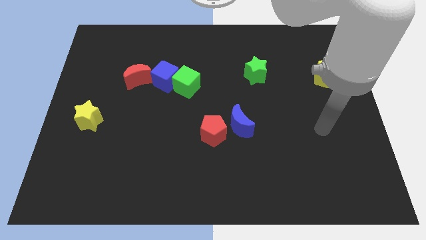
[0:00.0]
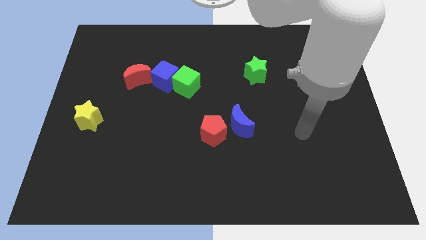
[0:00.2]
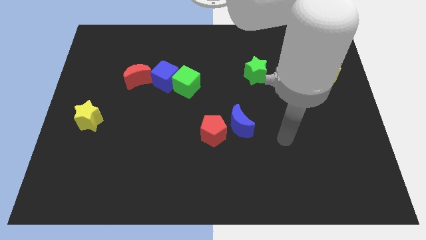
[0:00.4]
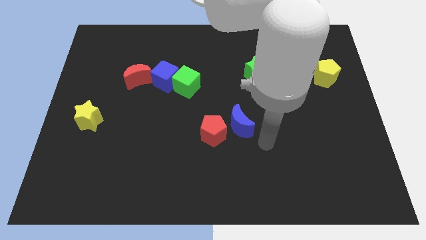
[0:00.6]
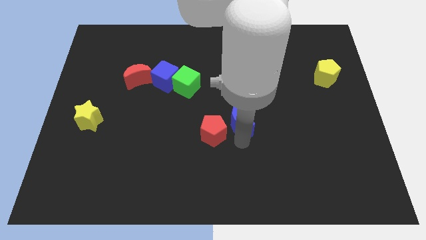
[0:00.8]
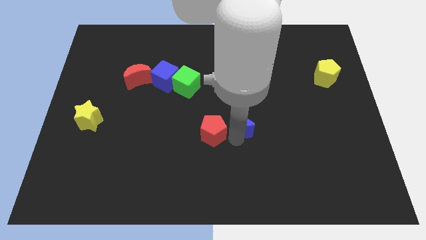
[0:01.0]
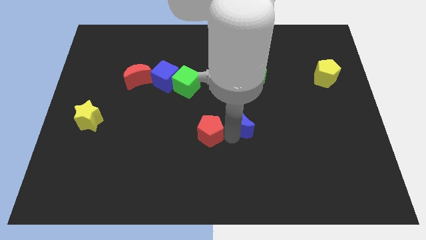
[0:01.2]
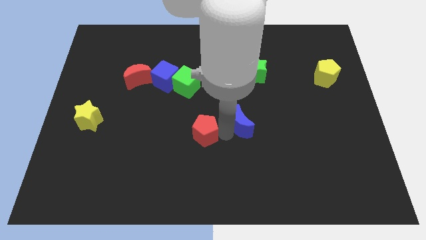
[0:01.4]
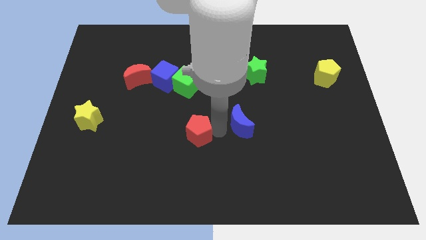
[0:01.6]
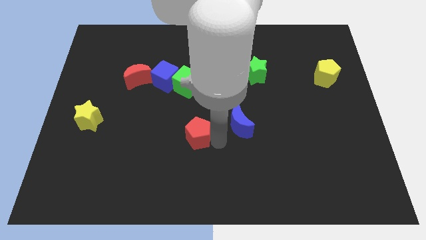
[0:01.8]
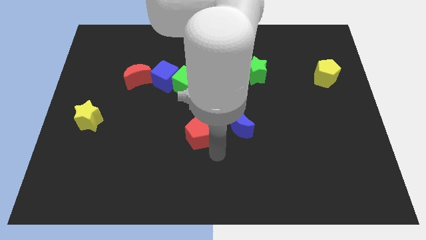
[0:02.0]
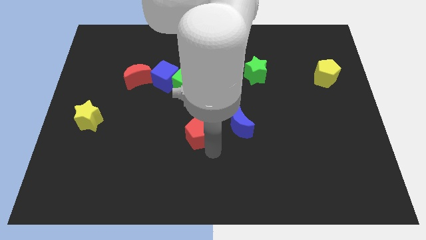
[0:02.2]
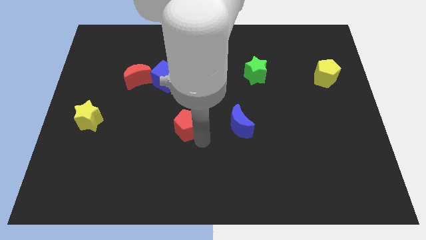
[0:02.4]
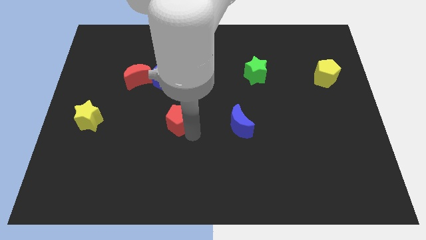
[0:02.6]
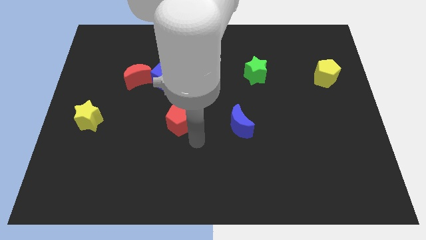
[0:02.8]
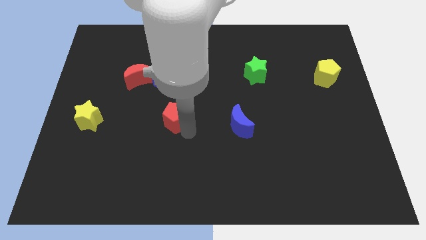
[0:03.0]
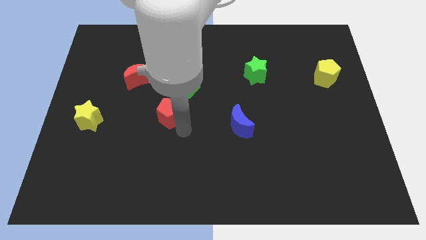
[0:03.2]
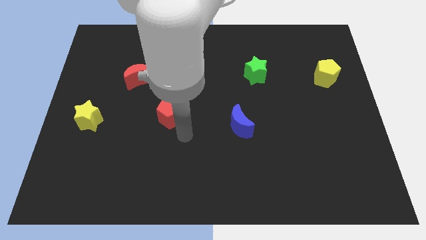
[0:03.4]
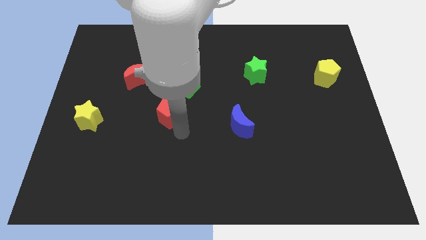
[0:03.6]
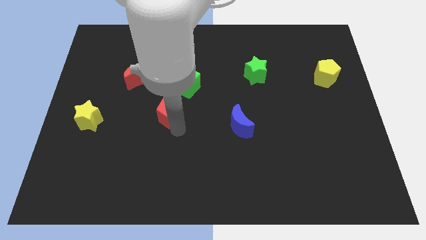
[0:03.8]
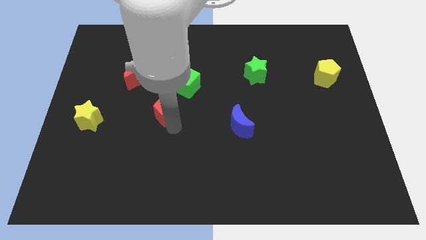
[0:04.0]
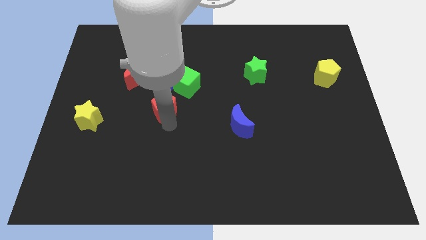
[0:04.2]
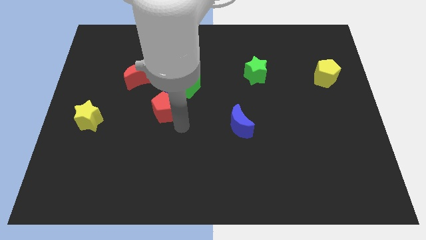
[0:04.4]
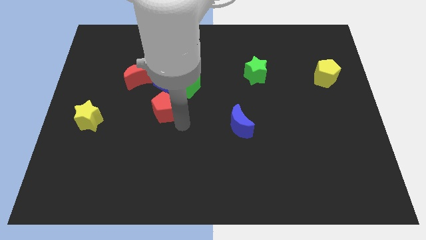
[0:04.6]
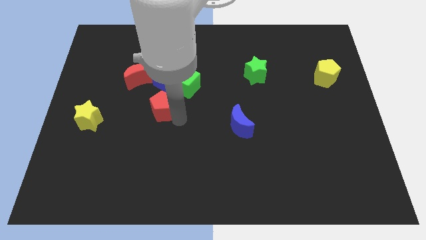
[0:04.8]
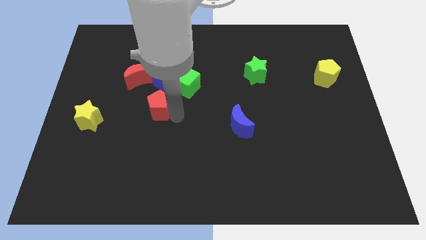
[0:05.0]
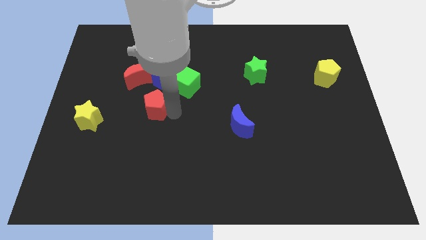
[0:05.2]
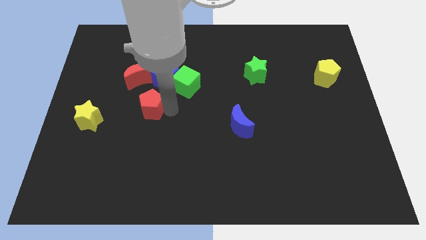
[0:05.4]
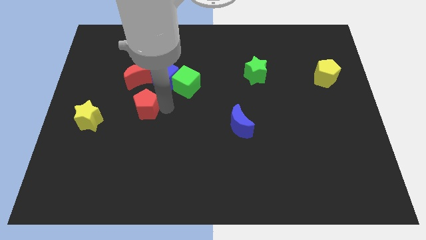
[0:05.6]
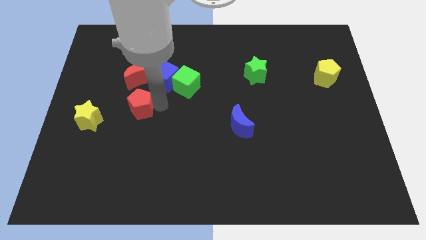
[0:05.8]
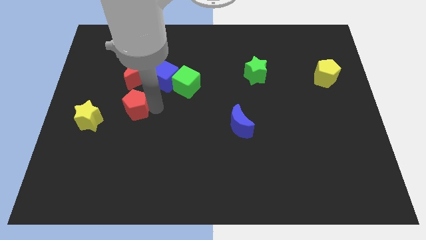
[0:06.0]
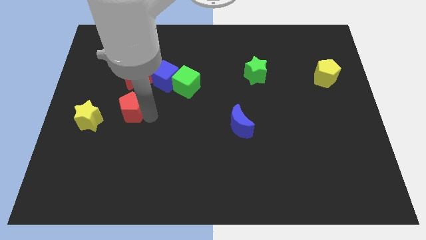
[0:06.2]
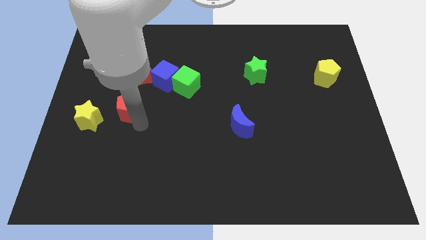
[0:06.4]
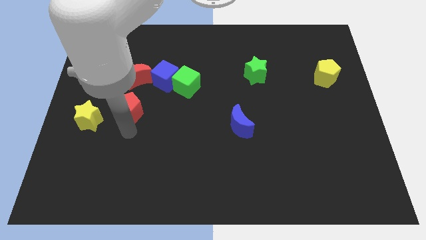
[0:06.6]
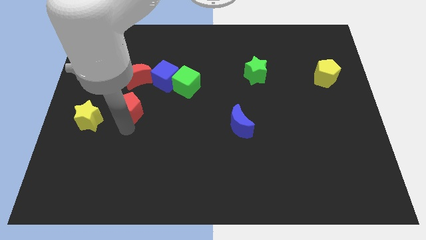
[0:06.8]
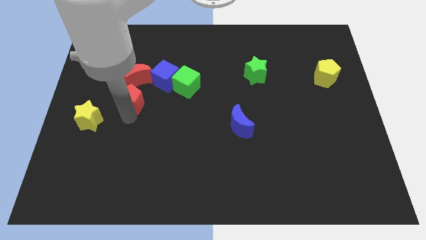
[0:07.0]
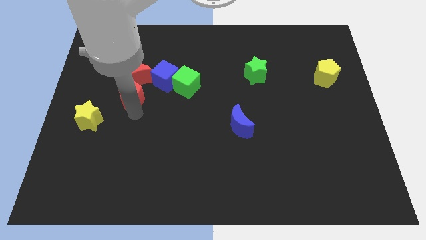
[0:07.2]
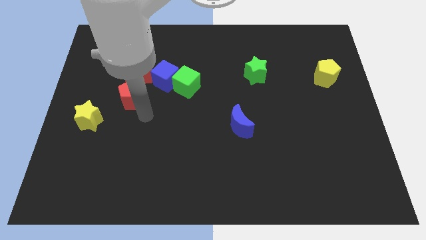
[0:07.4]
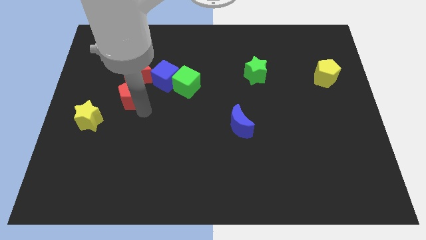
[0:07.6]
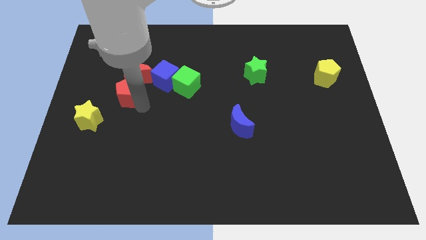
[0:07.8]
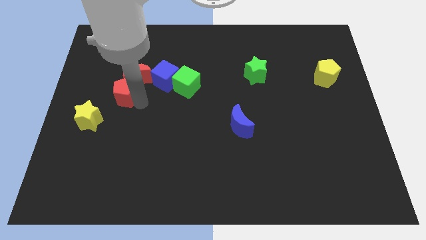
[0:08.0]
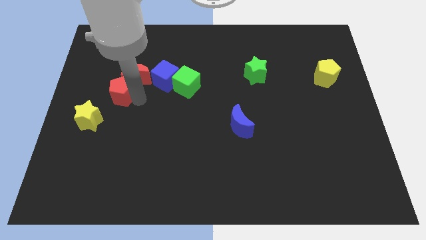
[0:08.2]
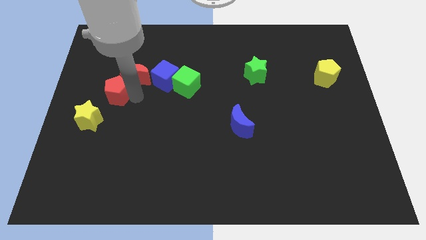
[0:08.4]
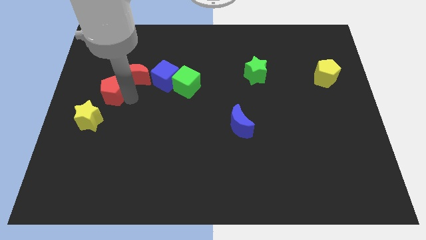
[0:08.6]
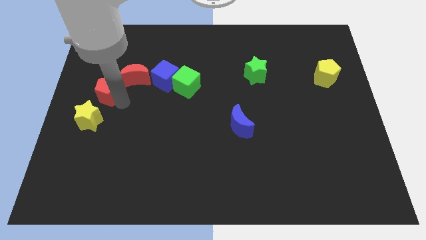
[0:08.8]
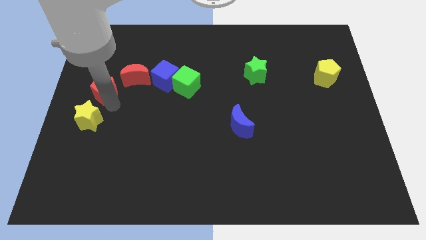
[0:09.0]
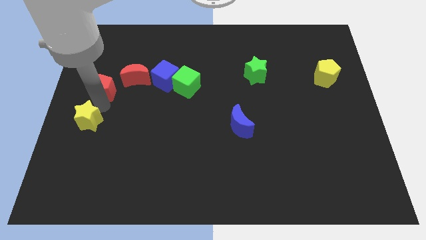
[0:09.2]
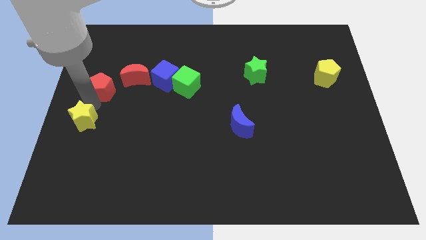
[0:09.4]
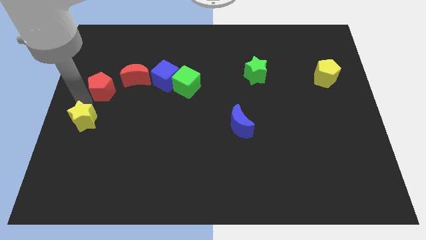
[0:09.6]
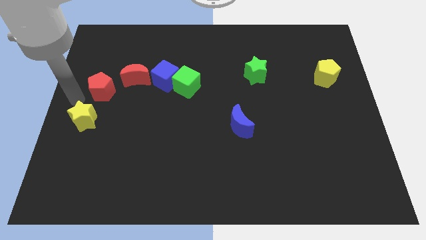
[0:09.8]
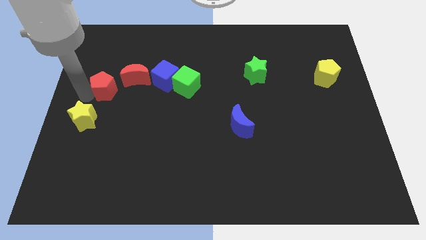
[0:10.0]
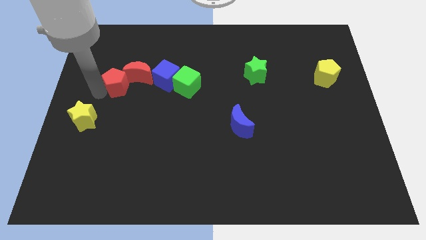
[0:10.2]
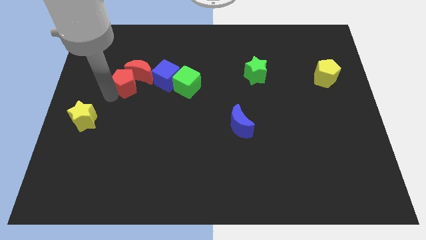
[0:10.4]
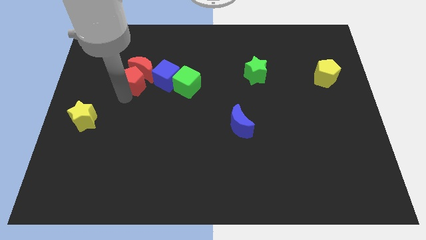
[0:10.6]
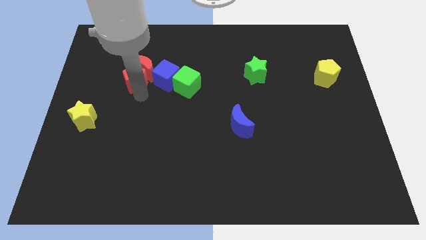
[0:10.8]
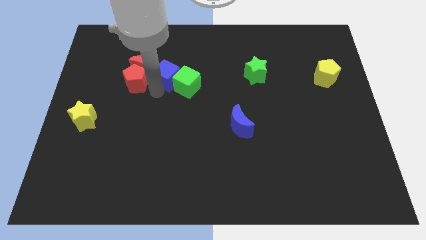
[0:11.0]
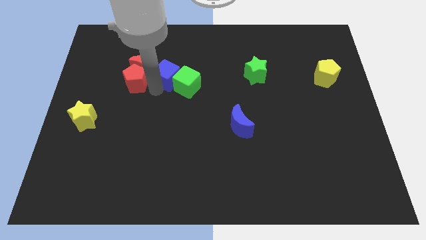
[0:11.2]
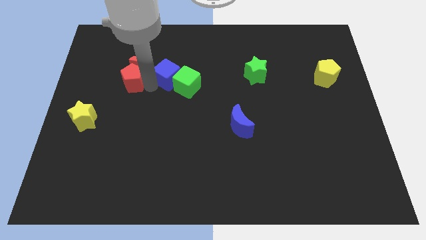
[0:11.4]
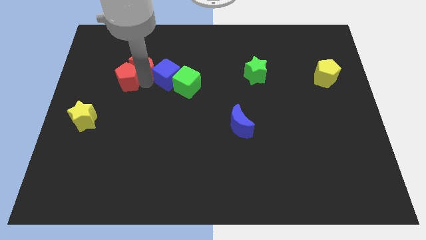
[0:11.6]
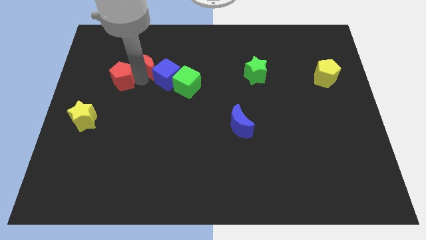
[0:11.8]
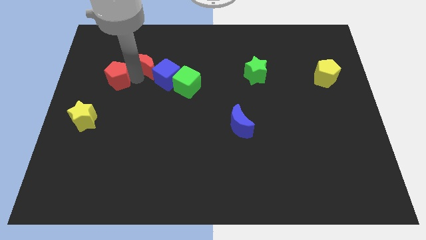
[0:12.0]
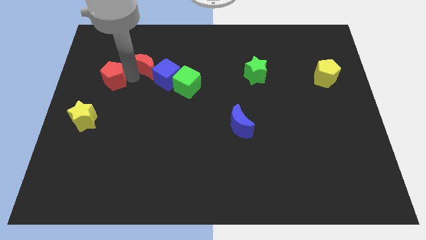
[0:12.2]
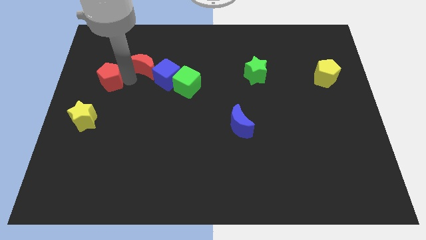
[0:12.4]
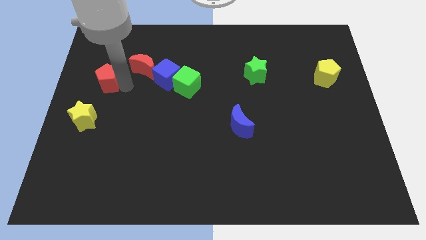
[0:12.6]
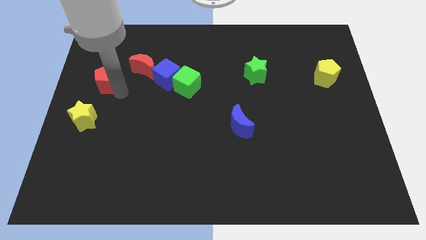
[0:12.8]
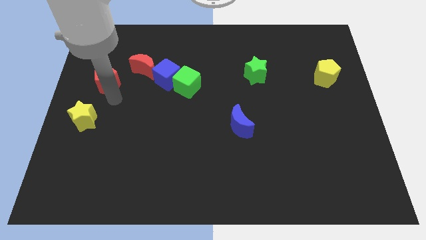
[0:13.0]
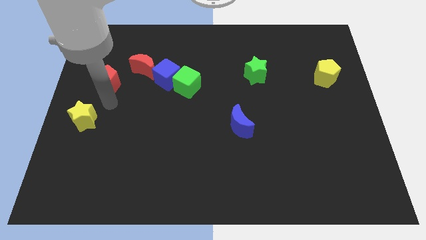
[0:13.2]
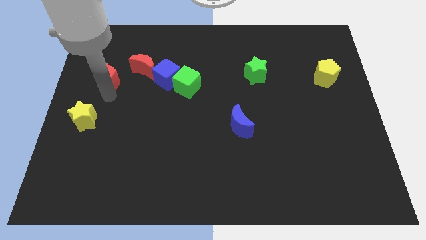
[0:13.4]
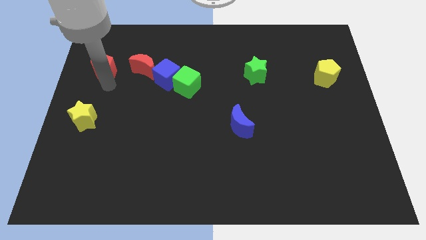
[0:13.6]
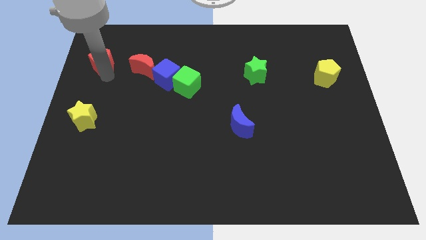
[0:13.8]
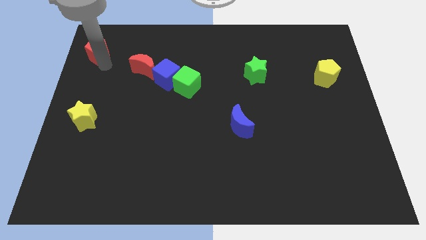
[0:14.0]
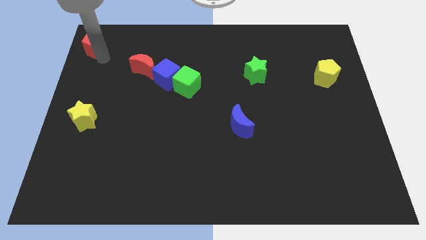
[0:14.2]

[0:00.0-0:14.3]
move the red pentagon to the upper left corner
